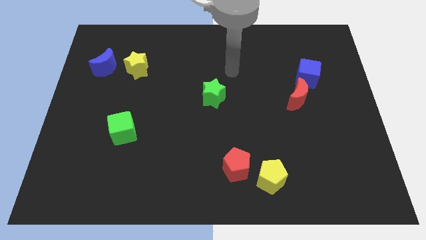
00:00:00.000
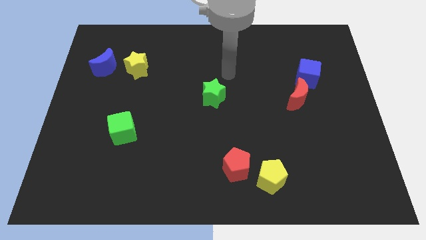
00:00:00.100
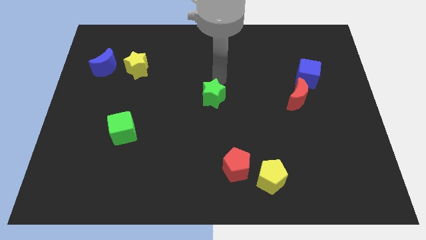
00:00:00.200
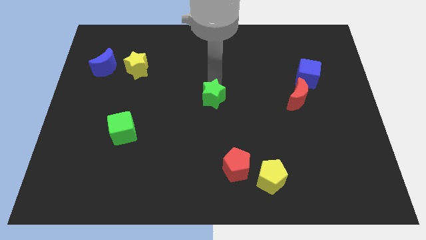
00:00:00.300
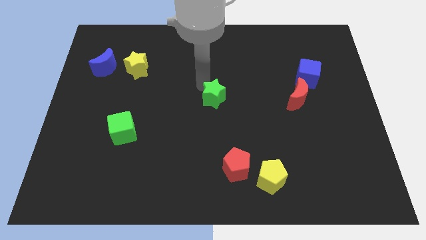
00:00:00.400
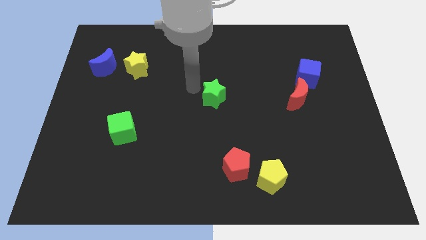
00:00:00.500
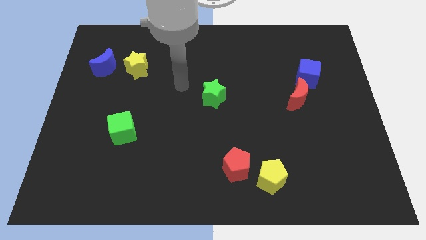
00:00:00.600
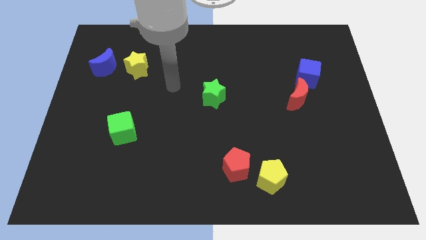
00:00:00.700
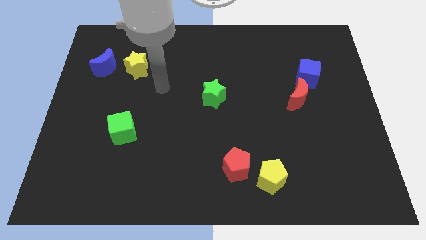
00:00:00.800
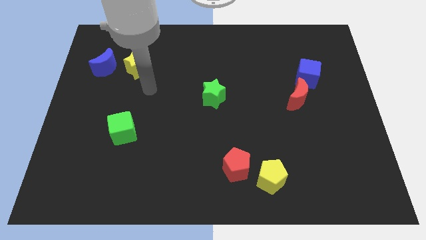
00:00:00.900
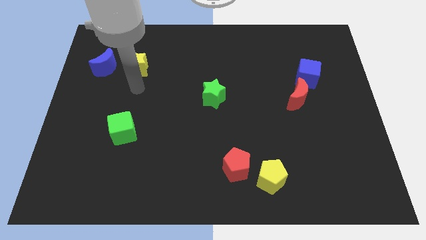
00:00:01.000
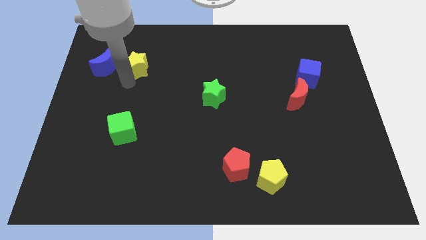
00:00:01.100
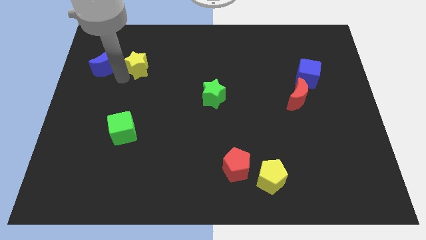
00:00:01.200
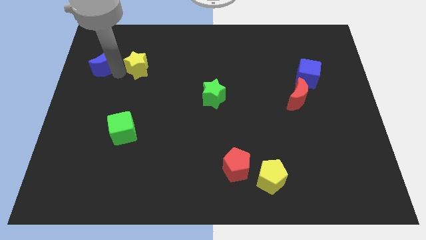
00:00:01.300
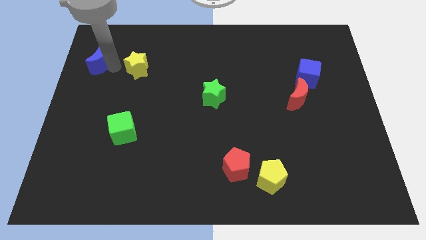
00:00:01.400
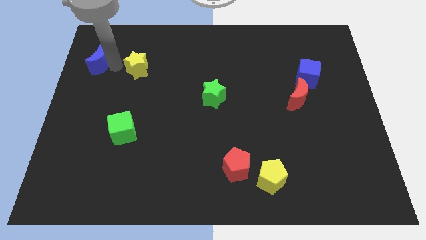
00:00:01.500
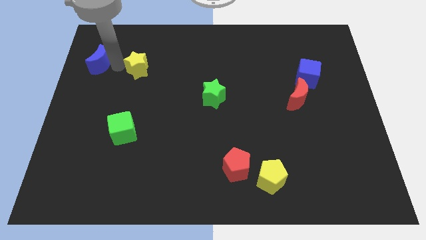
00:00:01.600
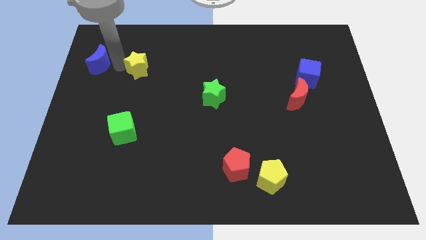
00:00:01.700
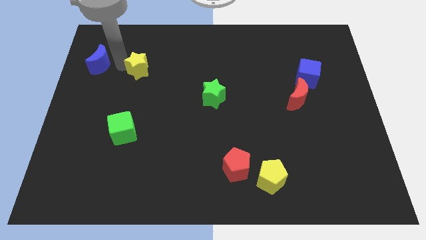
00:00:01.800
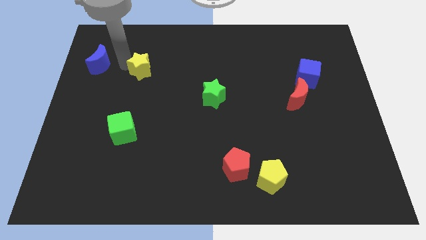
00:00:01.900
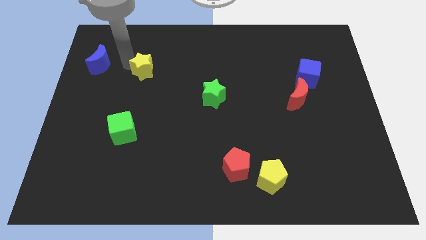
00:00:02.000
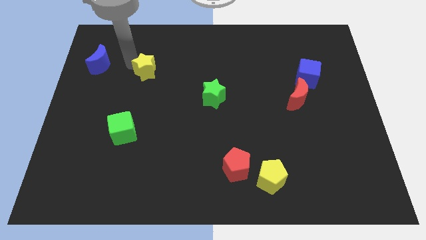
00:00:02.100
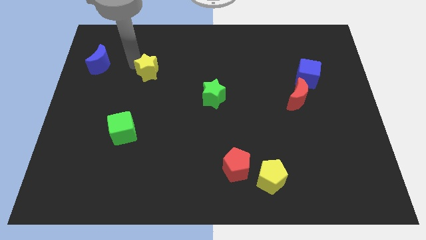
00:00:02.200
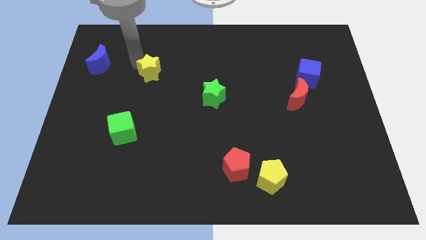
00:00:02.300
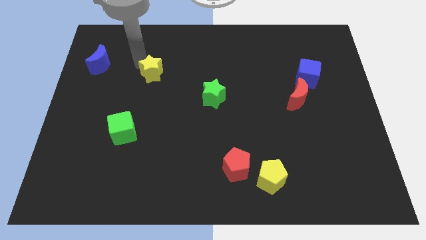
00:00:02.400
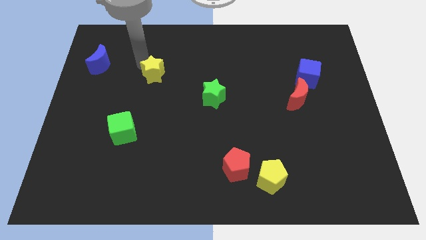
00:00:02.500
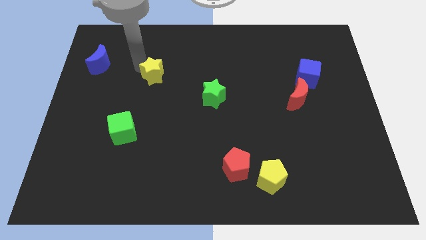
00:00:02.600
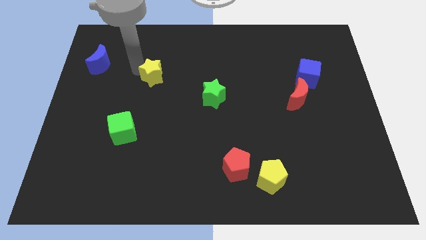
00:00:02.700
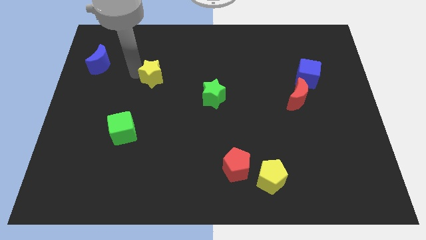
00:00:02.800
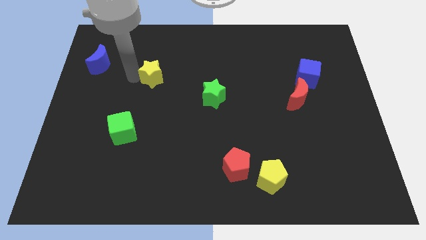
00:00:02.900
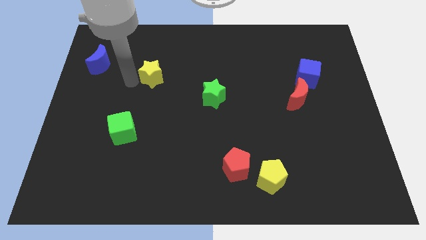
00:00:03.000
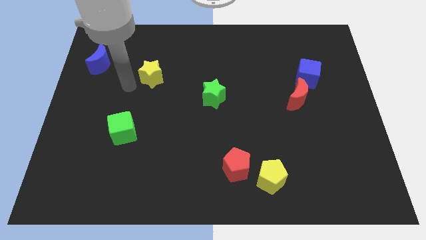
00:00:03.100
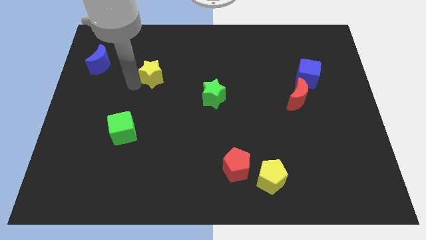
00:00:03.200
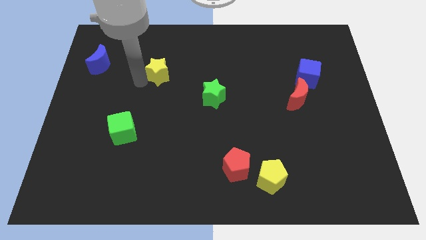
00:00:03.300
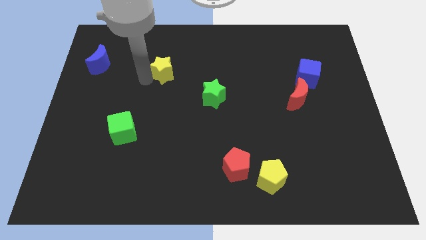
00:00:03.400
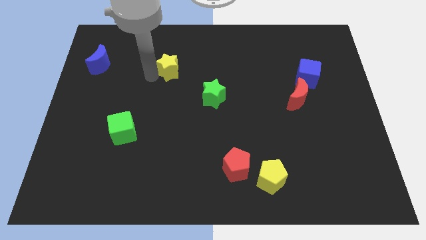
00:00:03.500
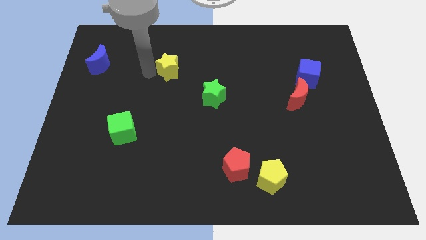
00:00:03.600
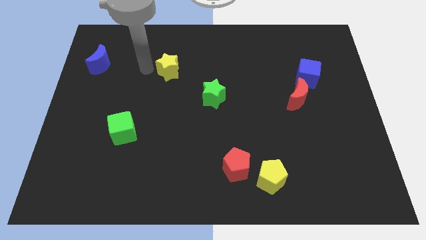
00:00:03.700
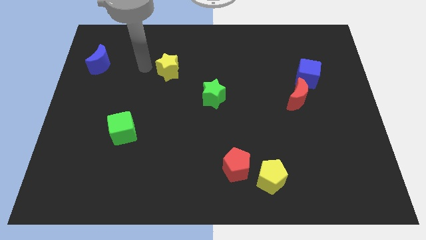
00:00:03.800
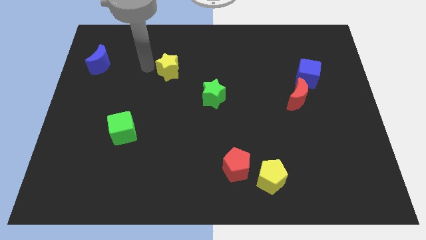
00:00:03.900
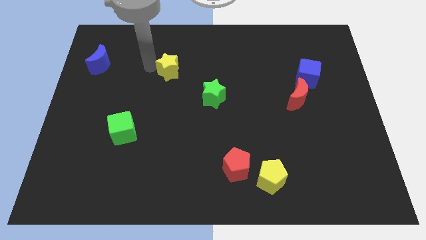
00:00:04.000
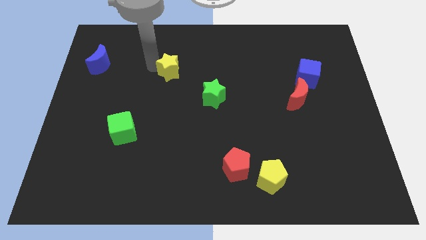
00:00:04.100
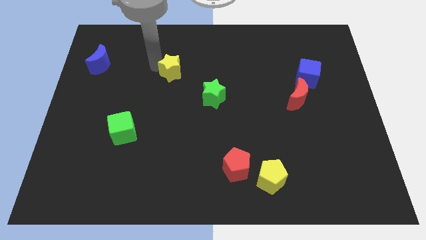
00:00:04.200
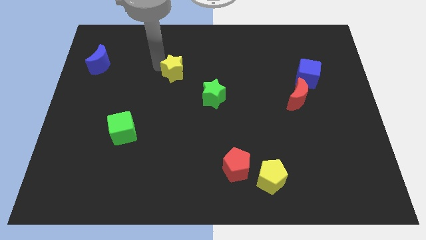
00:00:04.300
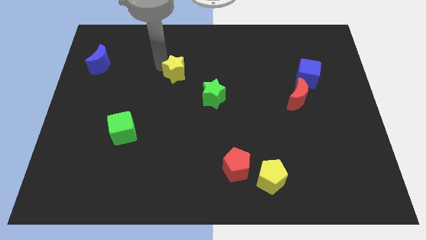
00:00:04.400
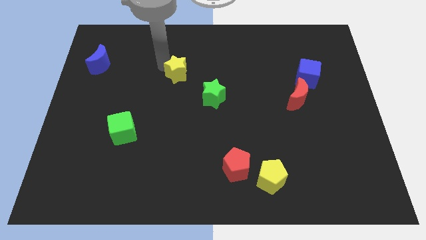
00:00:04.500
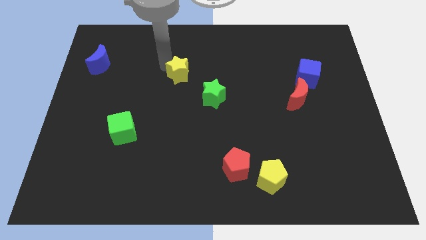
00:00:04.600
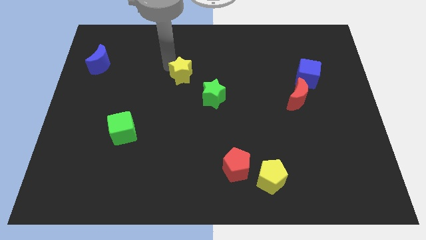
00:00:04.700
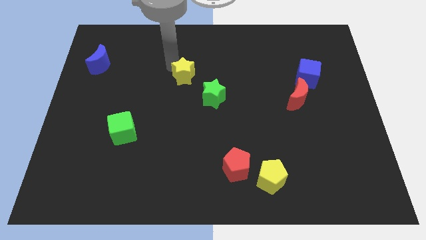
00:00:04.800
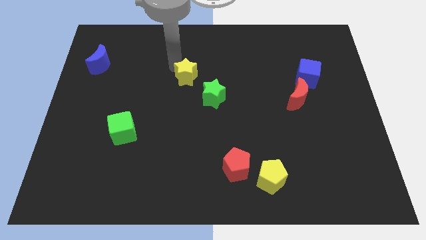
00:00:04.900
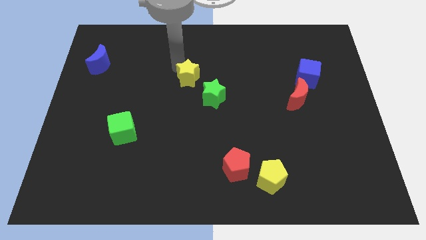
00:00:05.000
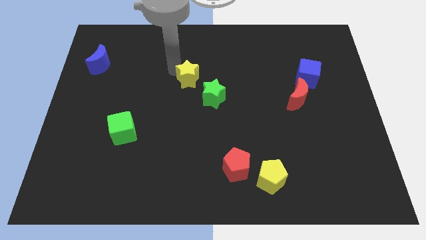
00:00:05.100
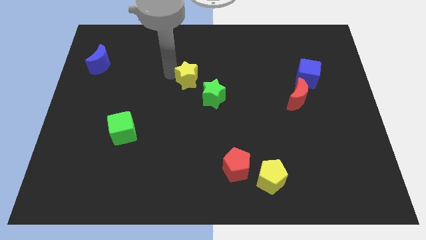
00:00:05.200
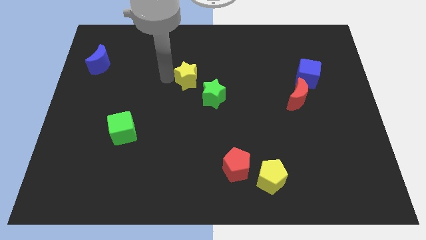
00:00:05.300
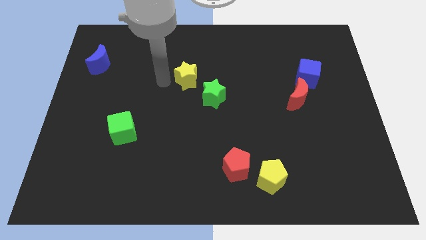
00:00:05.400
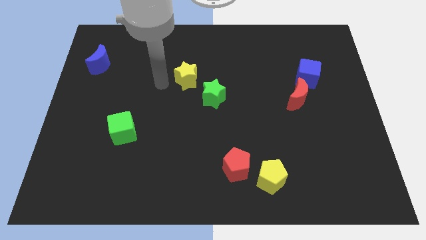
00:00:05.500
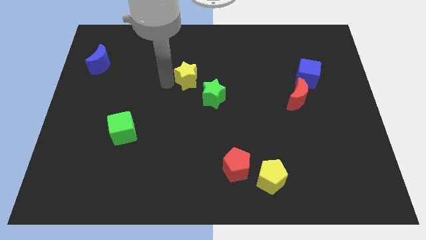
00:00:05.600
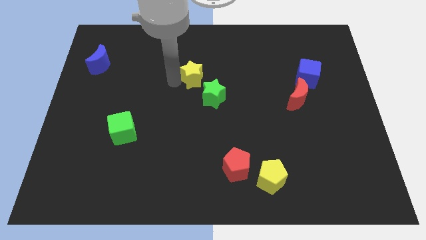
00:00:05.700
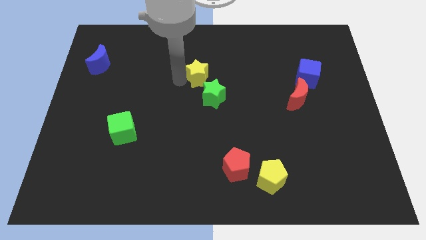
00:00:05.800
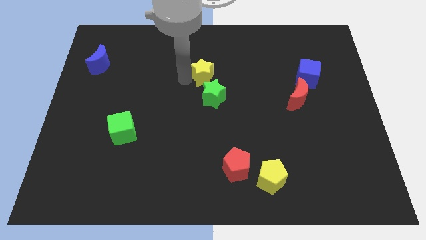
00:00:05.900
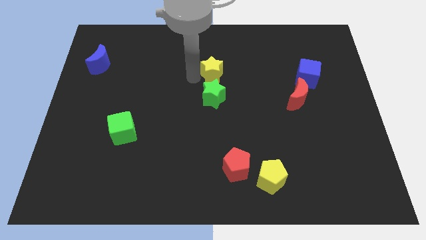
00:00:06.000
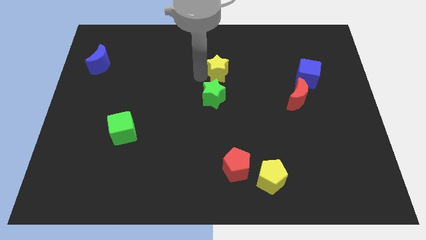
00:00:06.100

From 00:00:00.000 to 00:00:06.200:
slide the yellow star right

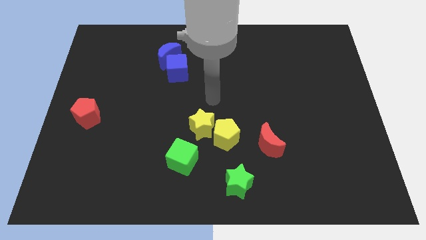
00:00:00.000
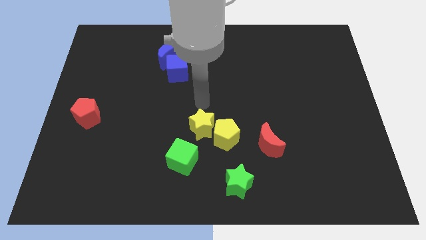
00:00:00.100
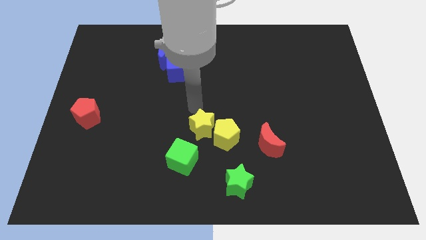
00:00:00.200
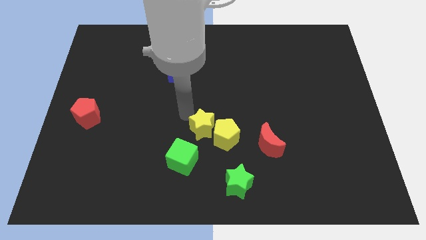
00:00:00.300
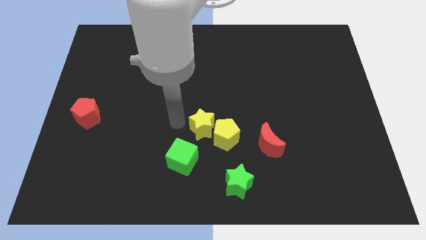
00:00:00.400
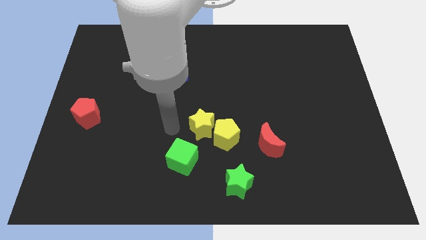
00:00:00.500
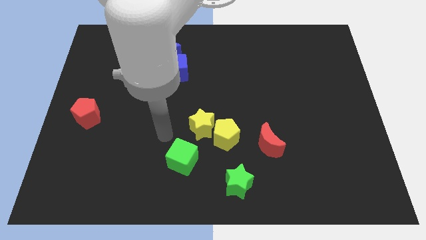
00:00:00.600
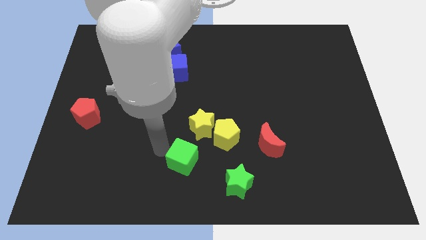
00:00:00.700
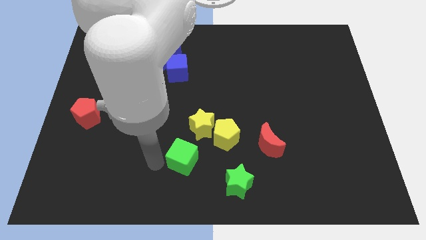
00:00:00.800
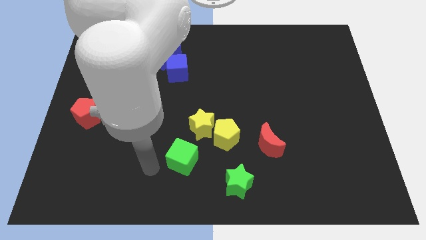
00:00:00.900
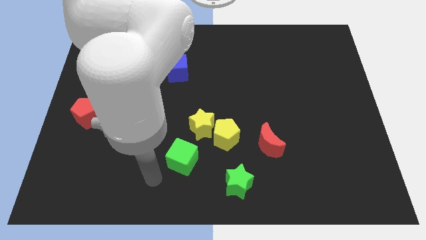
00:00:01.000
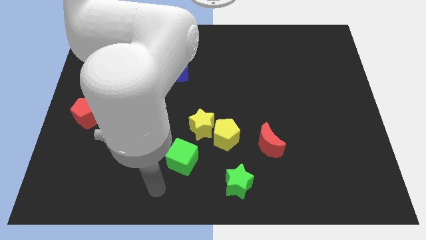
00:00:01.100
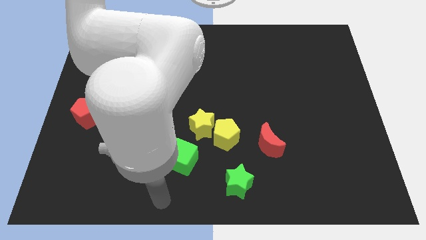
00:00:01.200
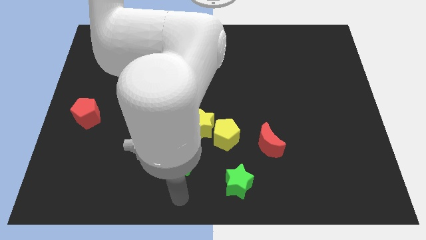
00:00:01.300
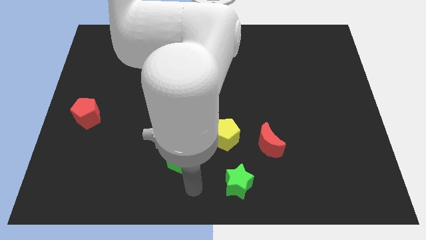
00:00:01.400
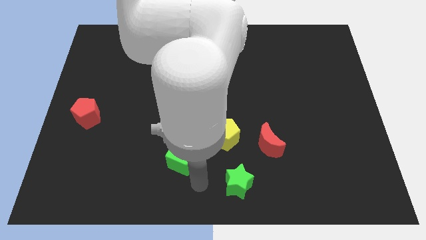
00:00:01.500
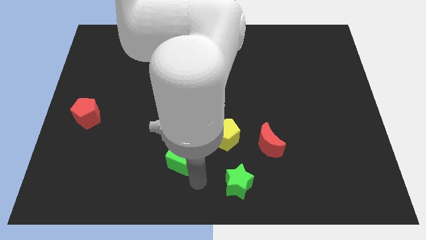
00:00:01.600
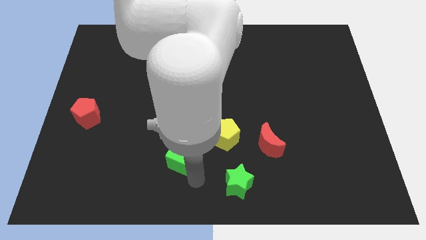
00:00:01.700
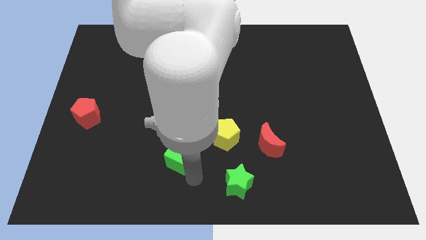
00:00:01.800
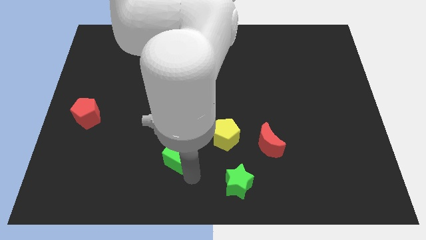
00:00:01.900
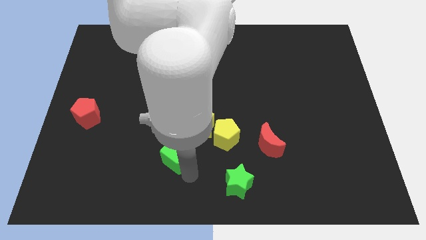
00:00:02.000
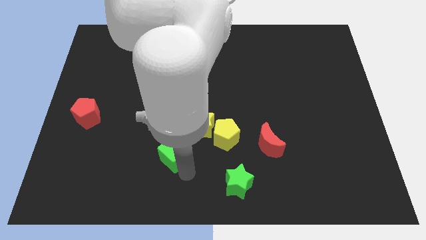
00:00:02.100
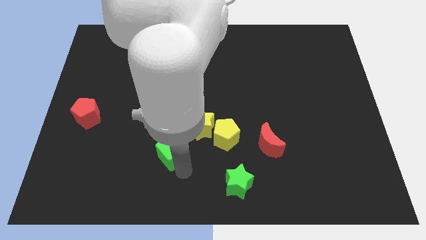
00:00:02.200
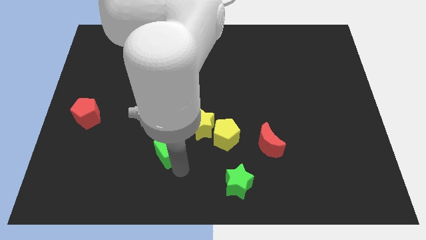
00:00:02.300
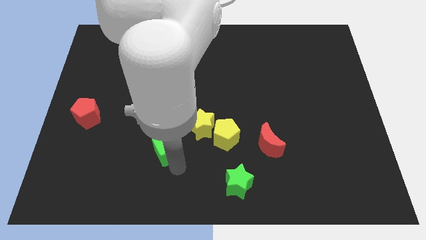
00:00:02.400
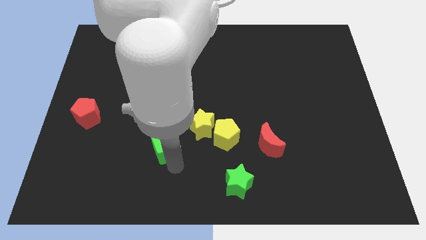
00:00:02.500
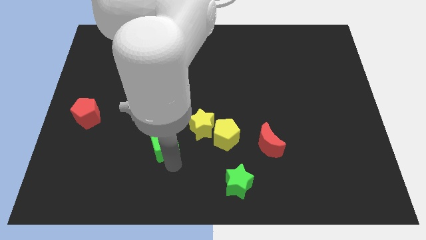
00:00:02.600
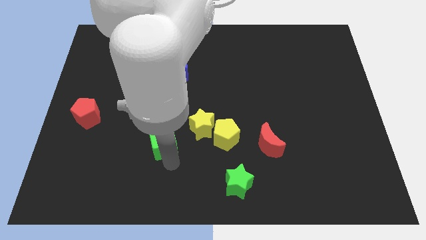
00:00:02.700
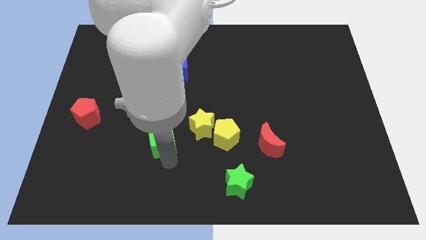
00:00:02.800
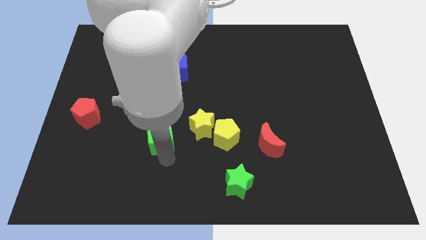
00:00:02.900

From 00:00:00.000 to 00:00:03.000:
slightly push the green cube diagonally up and left
